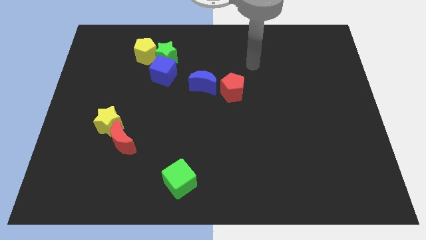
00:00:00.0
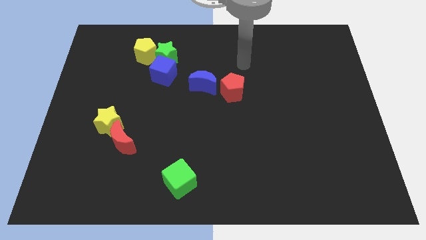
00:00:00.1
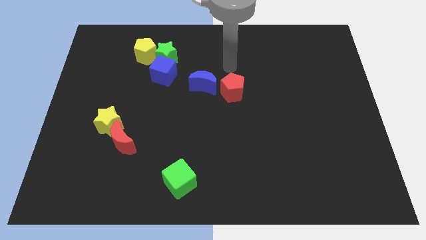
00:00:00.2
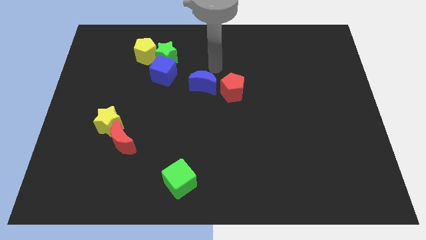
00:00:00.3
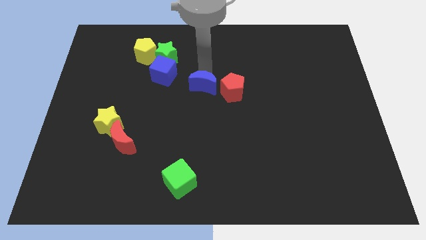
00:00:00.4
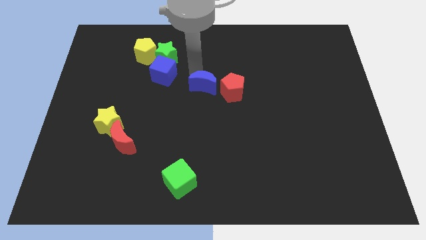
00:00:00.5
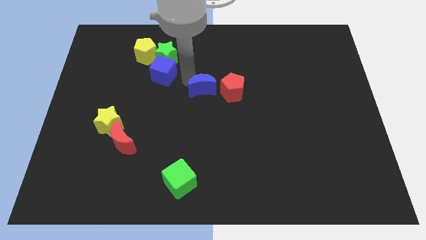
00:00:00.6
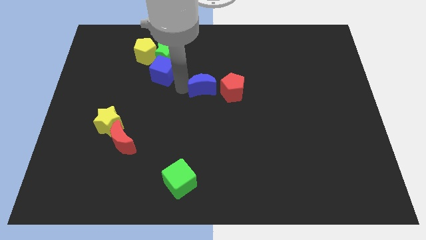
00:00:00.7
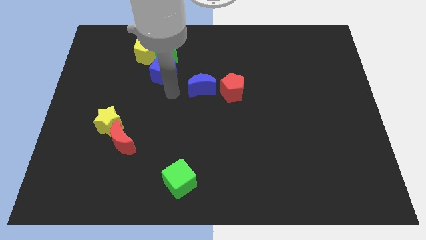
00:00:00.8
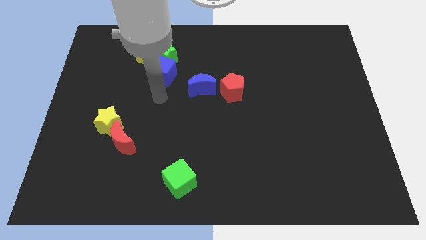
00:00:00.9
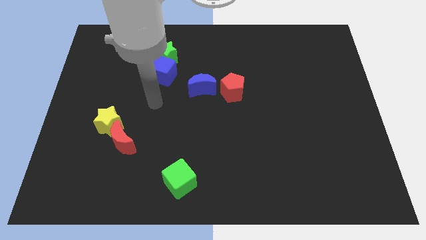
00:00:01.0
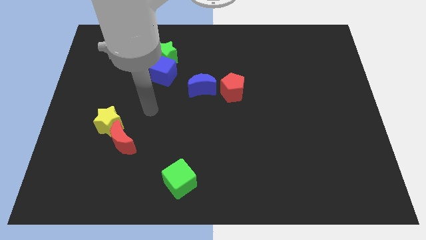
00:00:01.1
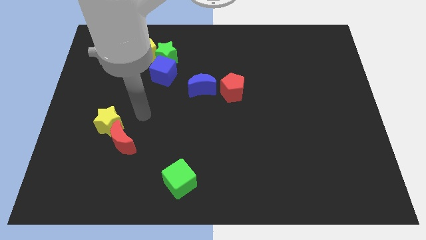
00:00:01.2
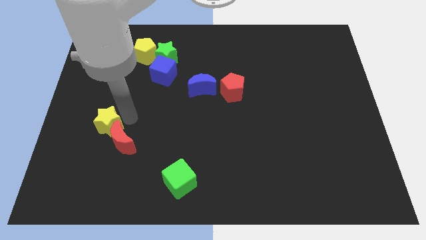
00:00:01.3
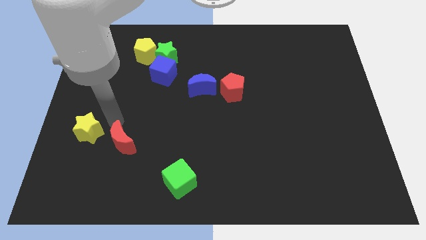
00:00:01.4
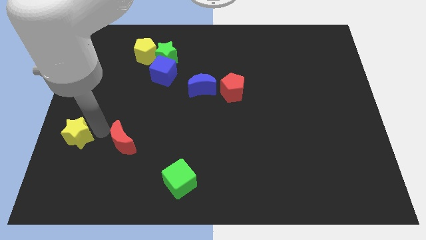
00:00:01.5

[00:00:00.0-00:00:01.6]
pull the red moon apart from the yellow star

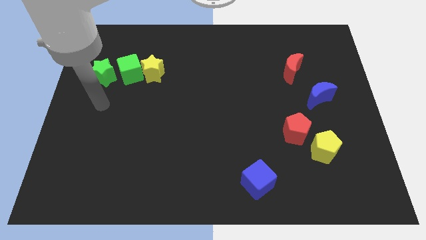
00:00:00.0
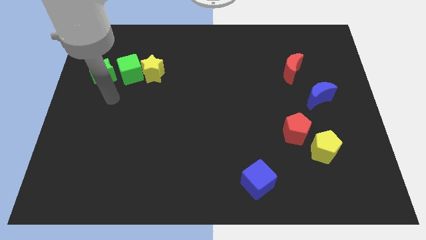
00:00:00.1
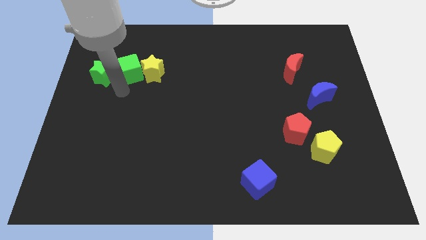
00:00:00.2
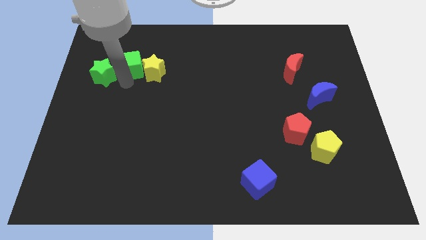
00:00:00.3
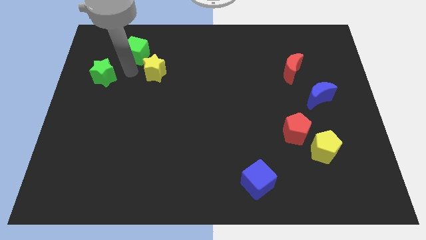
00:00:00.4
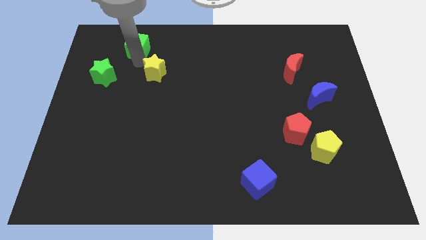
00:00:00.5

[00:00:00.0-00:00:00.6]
separate the yellow star from the green cube

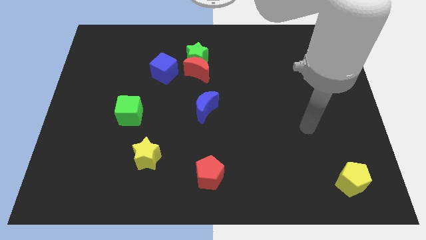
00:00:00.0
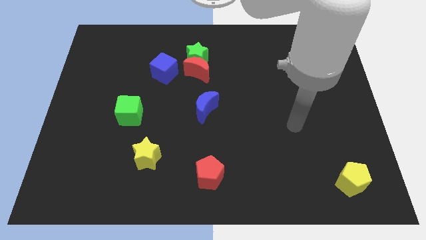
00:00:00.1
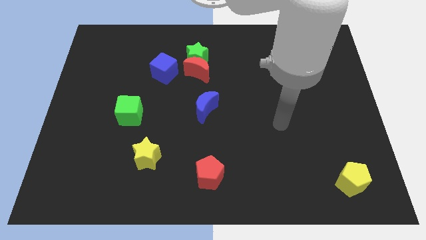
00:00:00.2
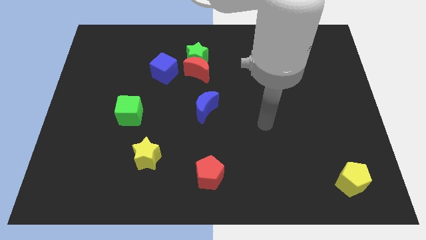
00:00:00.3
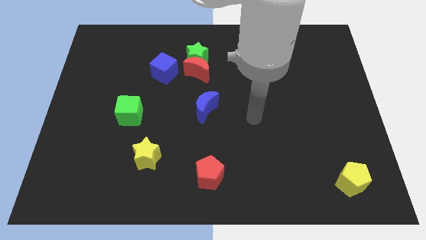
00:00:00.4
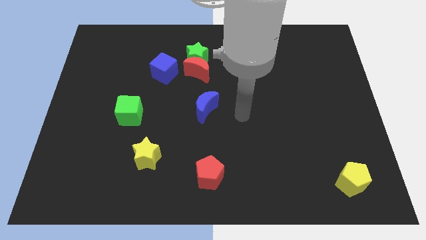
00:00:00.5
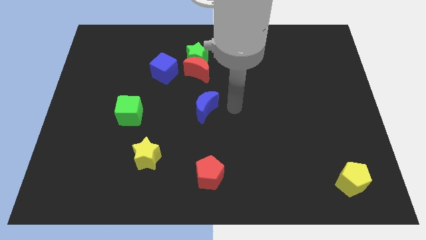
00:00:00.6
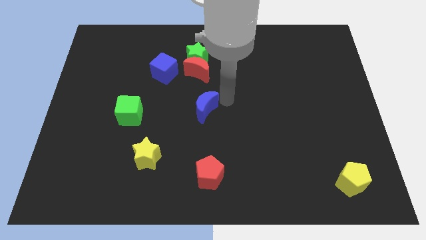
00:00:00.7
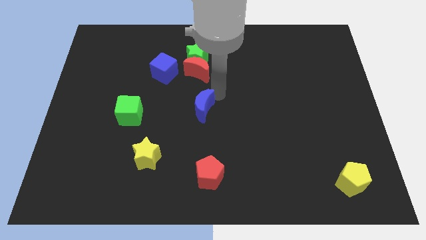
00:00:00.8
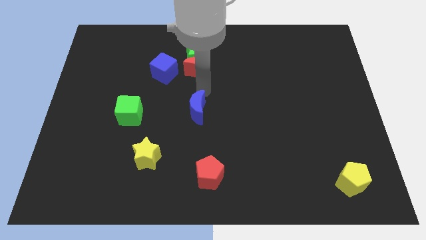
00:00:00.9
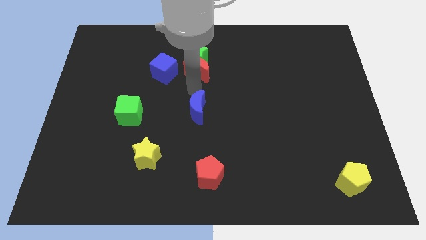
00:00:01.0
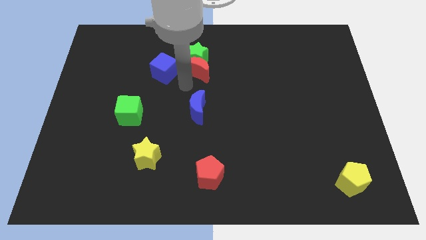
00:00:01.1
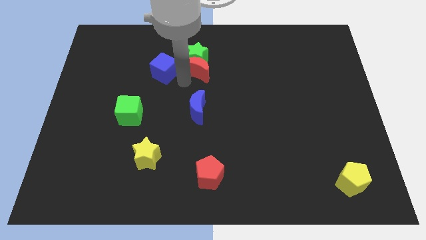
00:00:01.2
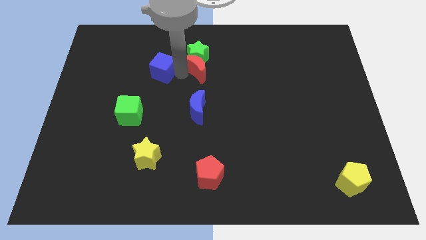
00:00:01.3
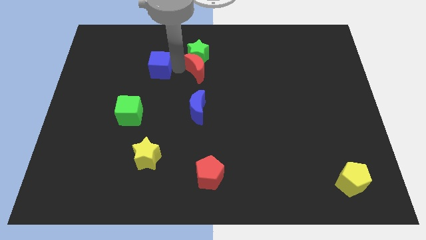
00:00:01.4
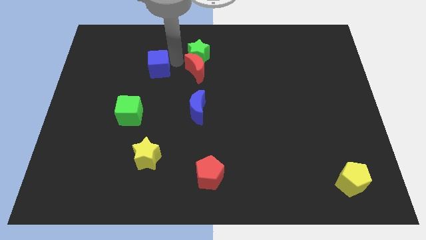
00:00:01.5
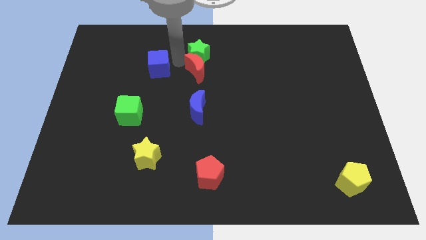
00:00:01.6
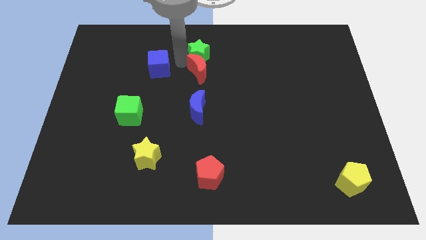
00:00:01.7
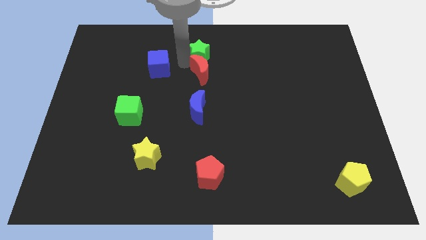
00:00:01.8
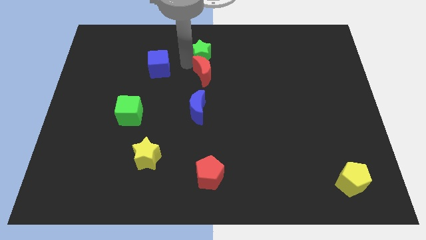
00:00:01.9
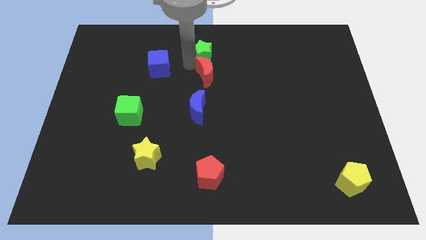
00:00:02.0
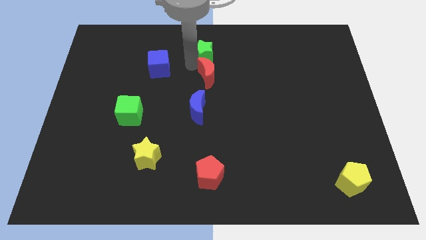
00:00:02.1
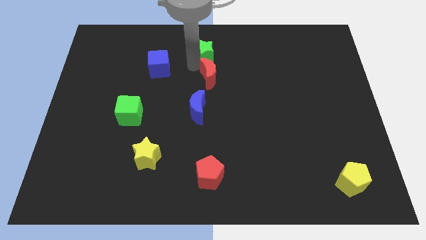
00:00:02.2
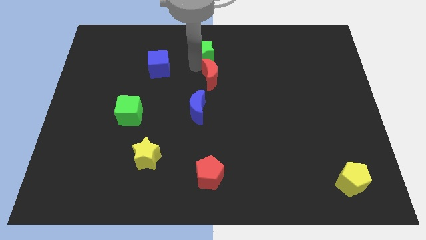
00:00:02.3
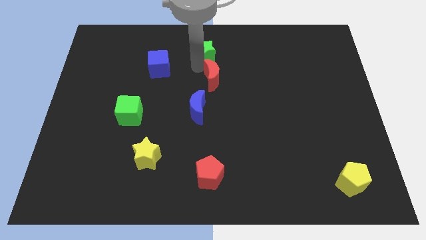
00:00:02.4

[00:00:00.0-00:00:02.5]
separate the red moon from the green star and blue cube

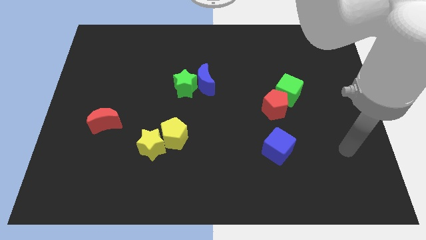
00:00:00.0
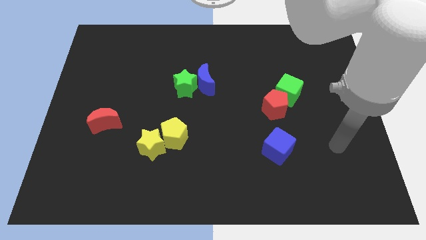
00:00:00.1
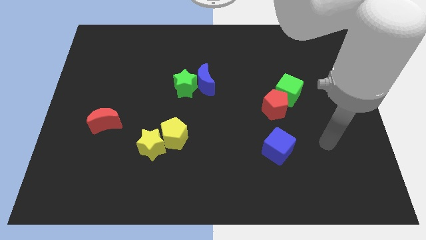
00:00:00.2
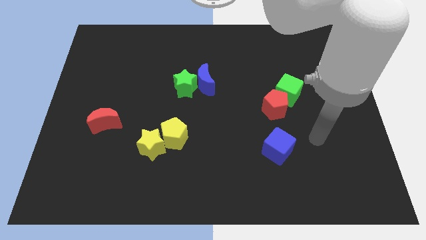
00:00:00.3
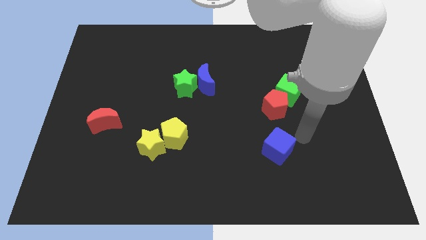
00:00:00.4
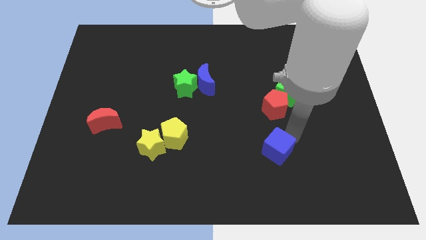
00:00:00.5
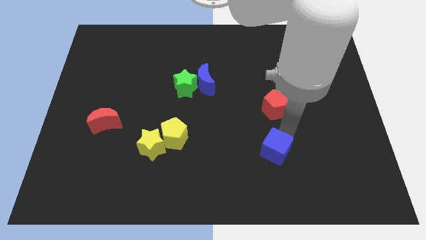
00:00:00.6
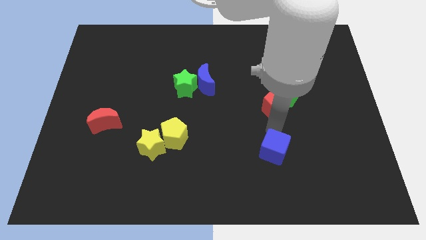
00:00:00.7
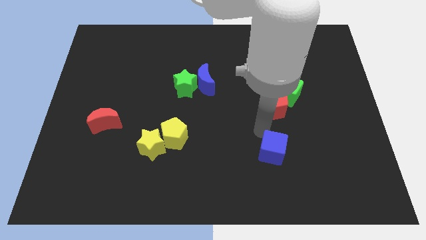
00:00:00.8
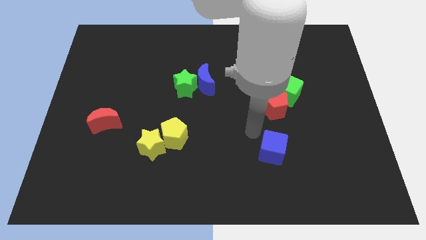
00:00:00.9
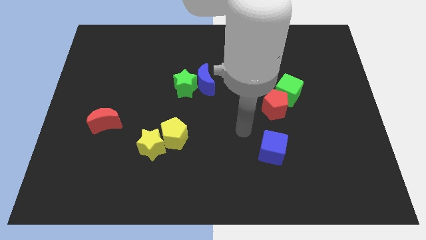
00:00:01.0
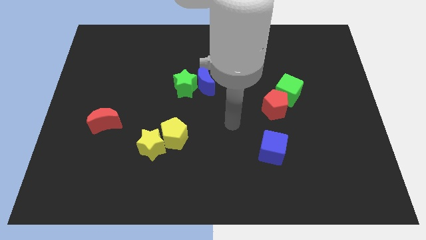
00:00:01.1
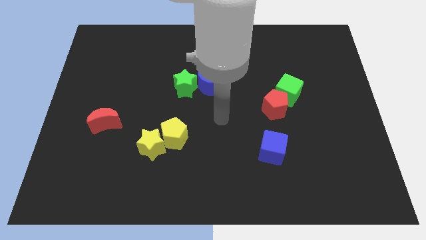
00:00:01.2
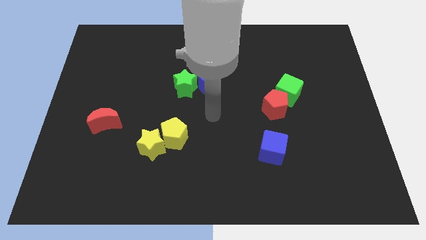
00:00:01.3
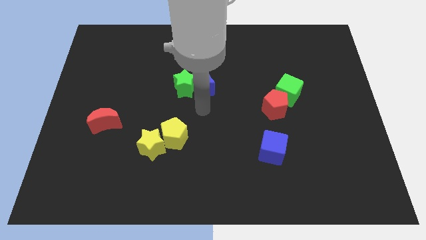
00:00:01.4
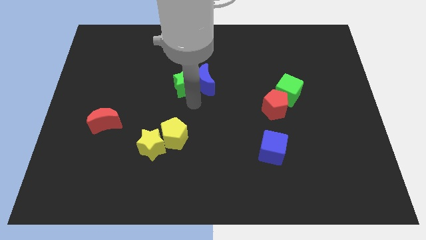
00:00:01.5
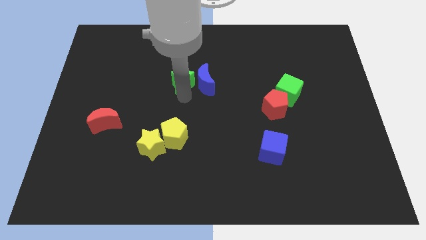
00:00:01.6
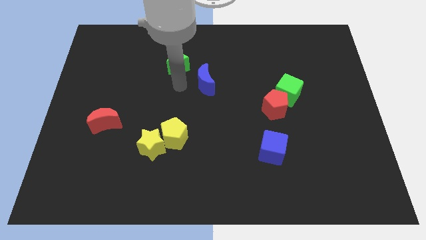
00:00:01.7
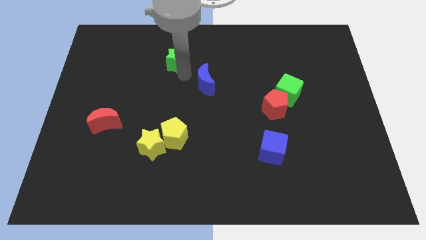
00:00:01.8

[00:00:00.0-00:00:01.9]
pull the blue moon apart from the green star

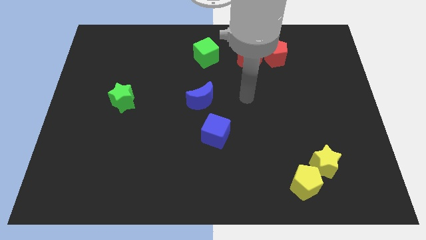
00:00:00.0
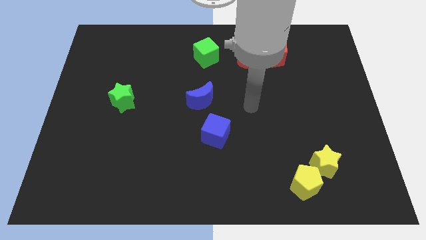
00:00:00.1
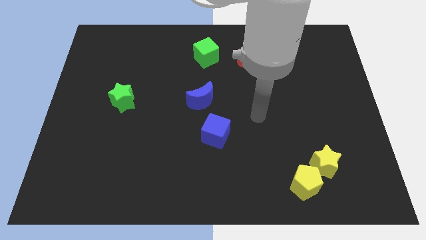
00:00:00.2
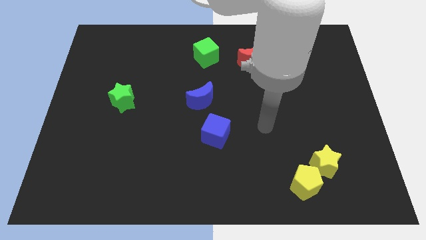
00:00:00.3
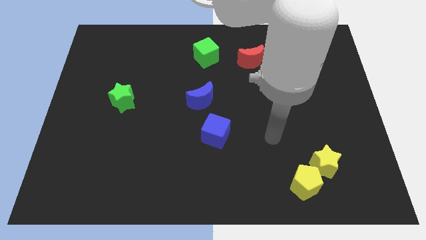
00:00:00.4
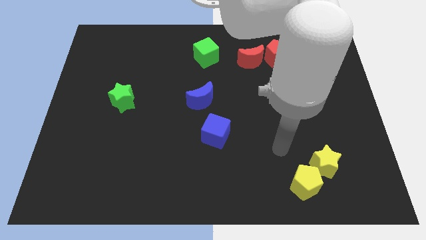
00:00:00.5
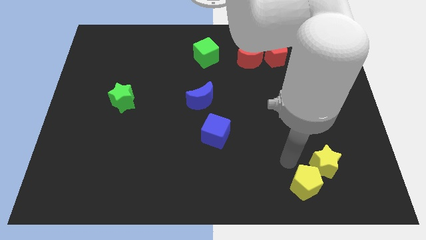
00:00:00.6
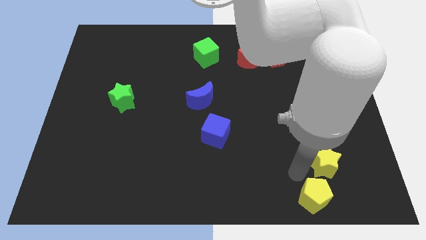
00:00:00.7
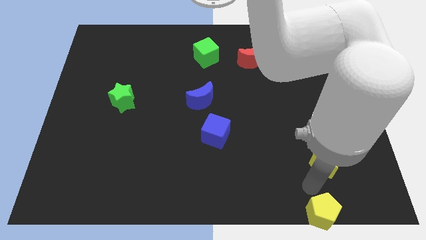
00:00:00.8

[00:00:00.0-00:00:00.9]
pull the yellow star apart from the yellow pentagon

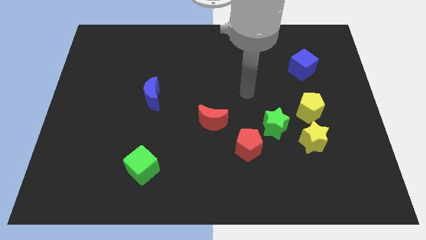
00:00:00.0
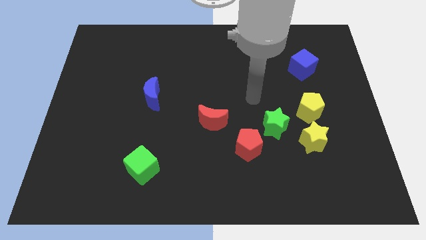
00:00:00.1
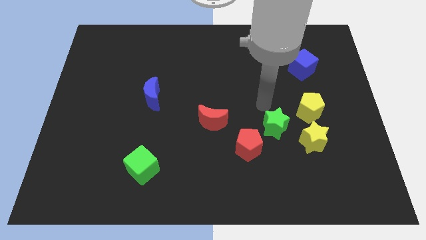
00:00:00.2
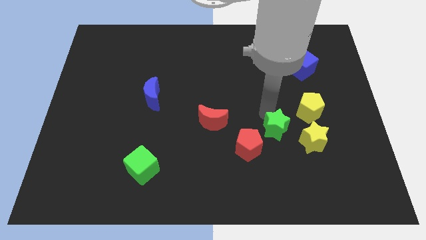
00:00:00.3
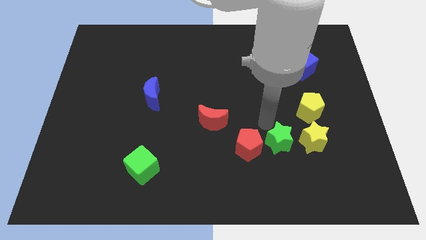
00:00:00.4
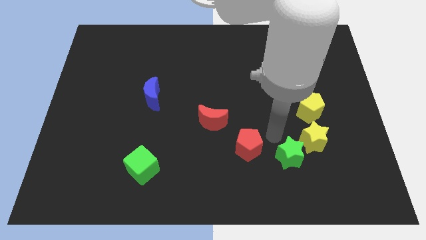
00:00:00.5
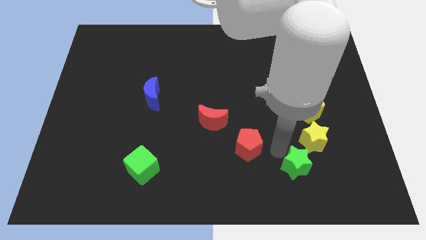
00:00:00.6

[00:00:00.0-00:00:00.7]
move the red pentagon away from the green star

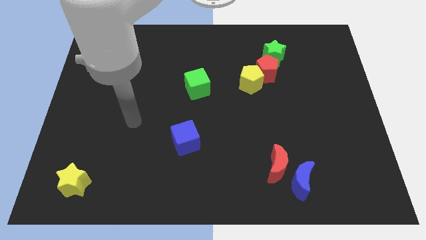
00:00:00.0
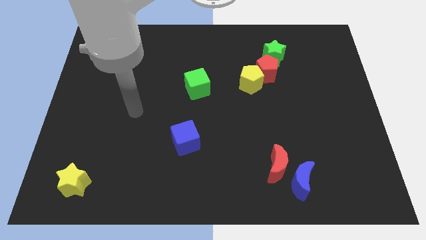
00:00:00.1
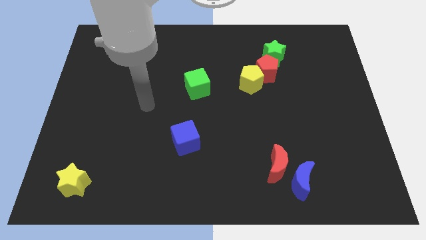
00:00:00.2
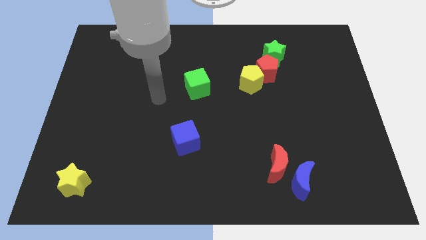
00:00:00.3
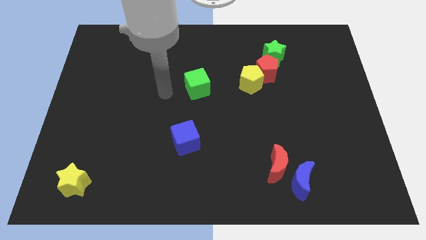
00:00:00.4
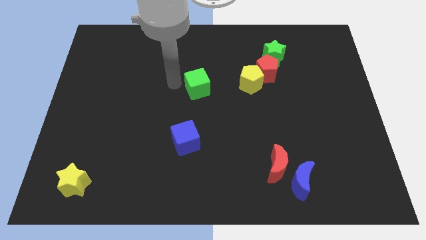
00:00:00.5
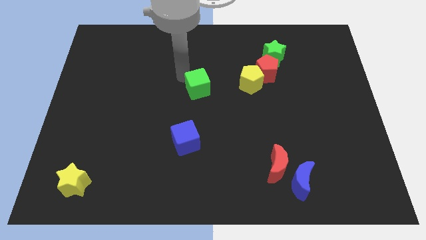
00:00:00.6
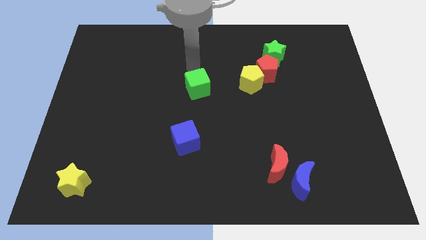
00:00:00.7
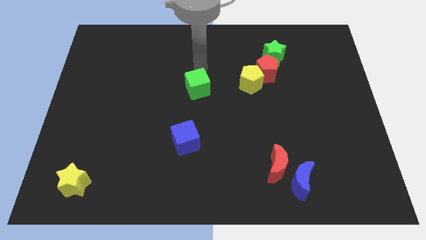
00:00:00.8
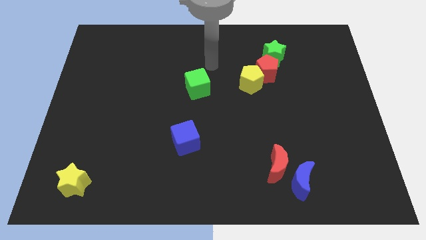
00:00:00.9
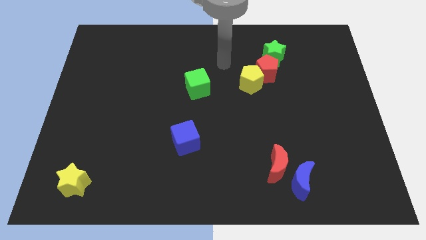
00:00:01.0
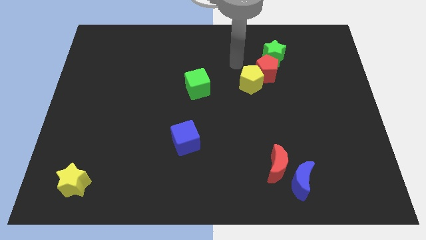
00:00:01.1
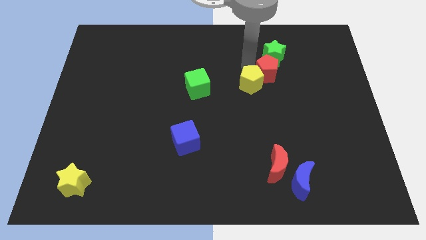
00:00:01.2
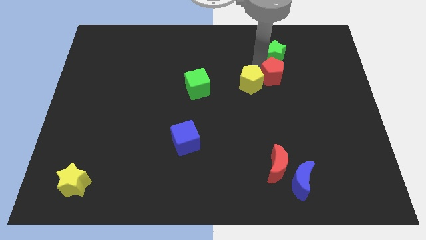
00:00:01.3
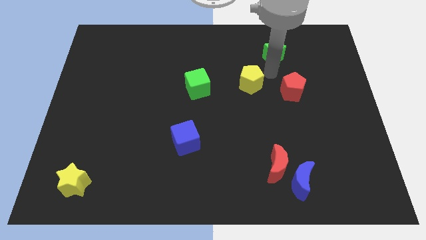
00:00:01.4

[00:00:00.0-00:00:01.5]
pull the yellow pentagon apart from the red pentagon
